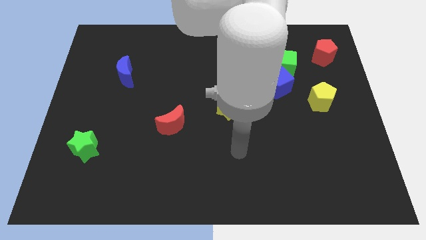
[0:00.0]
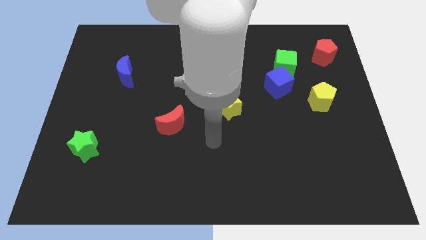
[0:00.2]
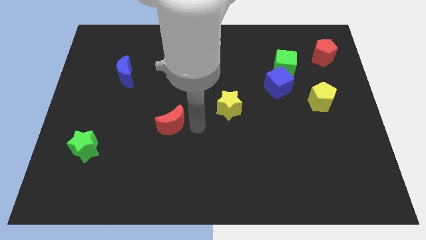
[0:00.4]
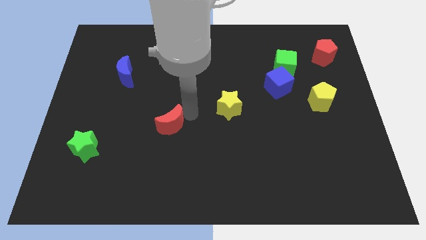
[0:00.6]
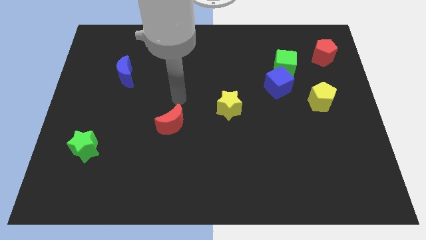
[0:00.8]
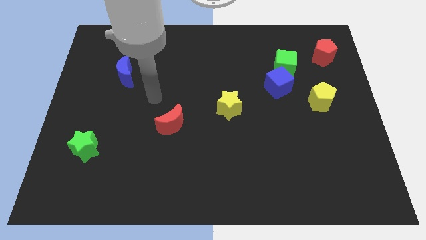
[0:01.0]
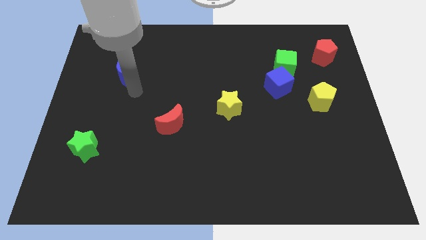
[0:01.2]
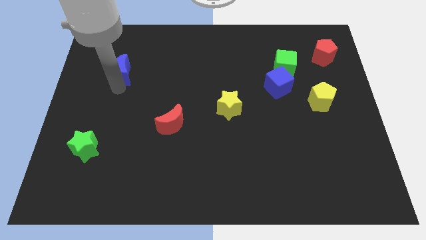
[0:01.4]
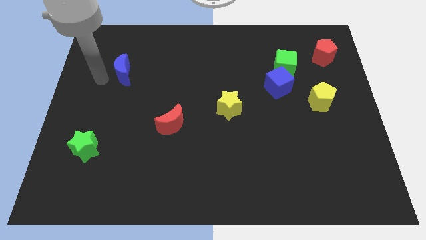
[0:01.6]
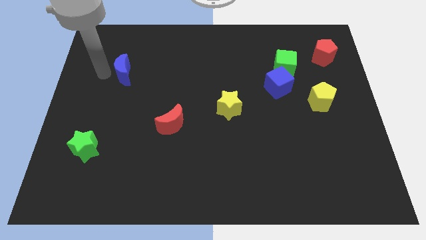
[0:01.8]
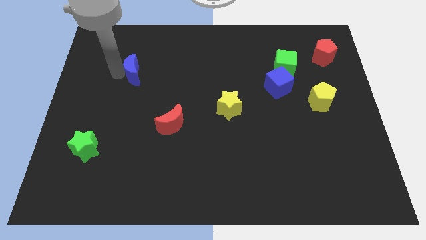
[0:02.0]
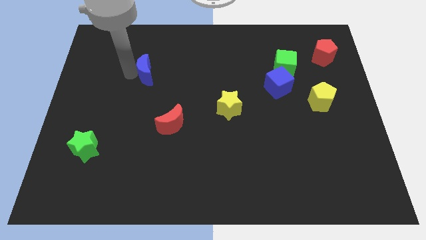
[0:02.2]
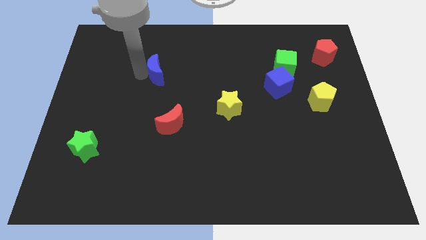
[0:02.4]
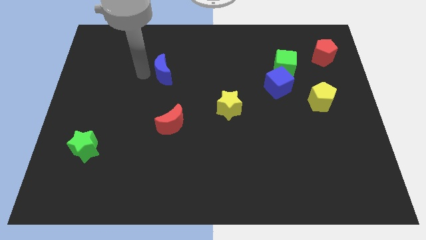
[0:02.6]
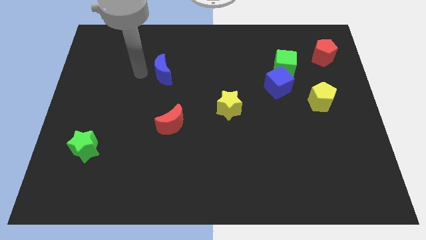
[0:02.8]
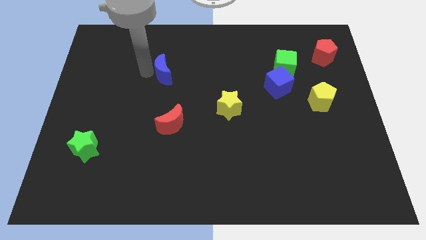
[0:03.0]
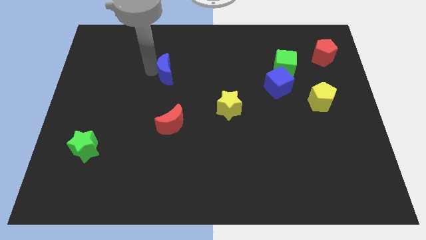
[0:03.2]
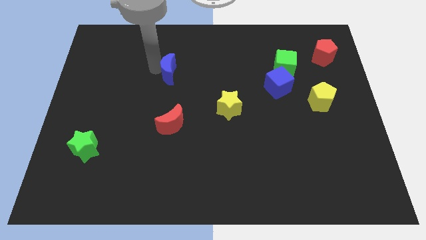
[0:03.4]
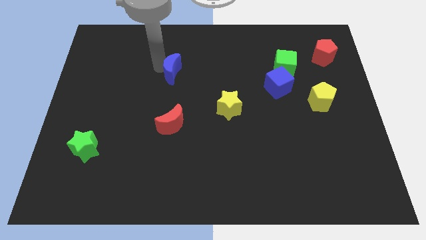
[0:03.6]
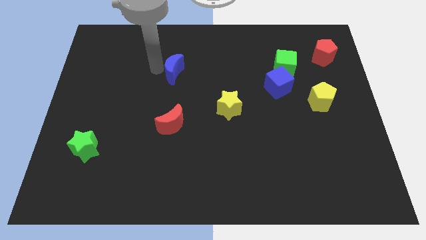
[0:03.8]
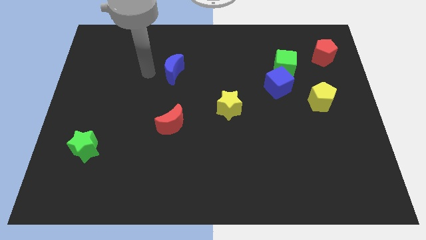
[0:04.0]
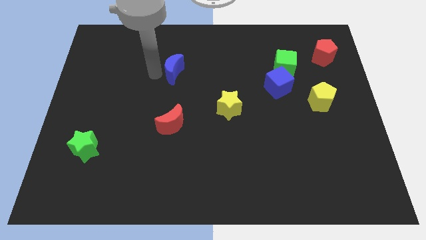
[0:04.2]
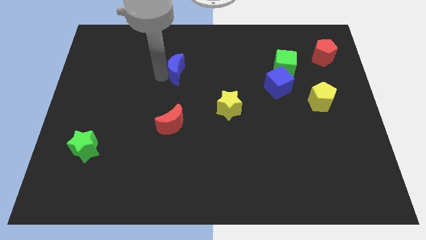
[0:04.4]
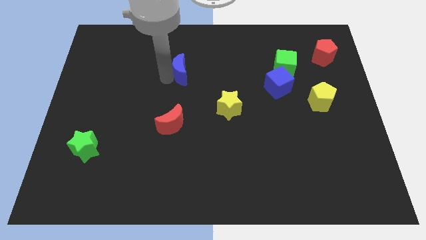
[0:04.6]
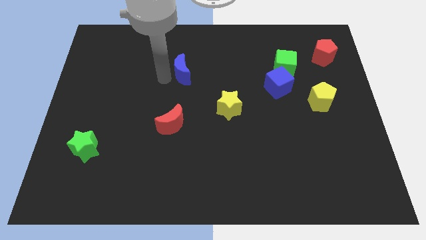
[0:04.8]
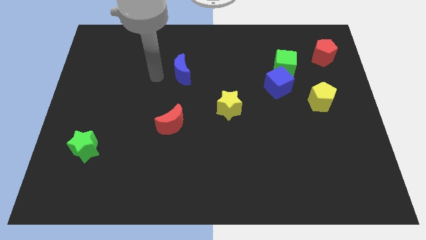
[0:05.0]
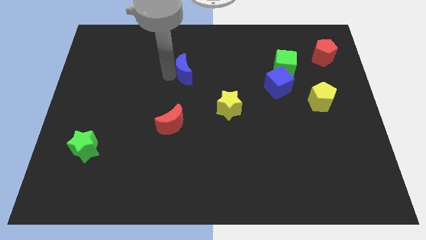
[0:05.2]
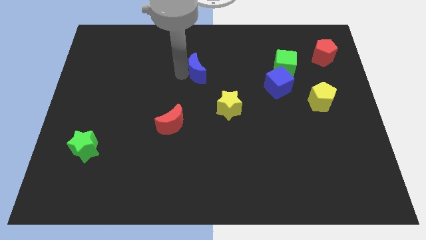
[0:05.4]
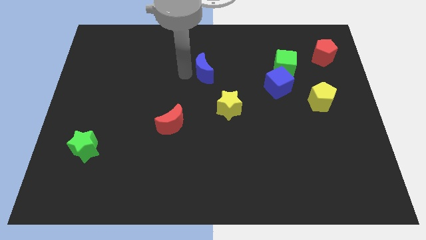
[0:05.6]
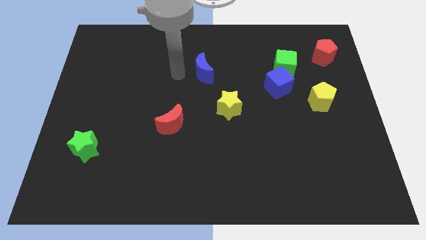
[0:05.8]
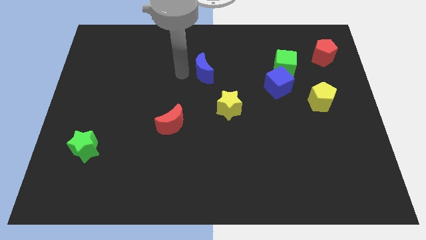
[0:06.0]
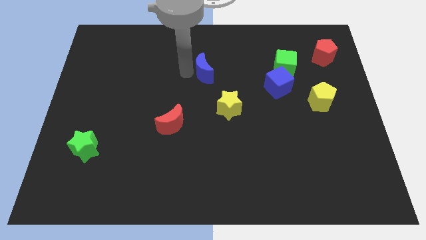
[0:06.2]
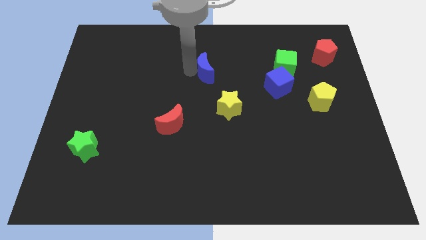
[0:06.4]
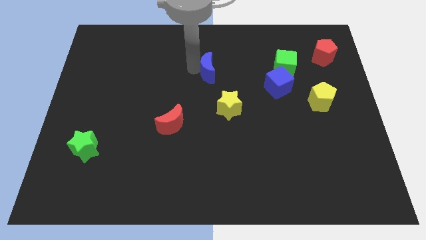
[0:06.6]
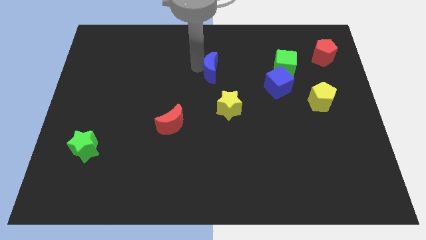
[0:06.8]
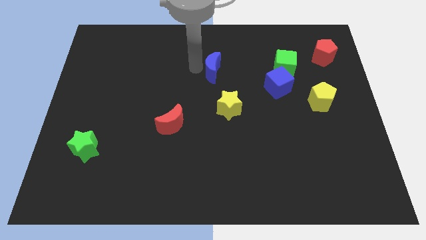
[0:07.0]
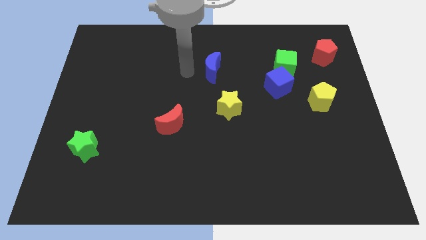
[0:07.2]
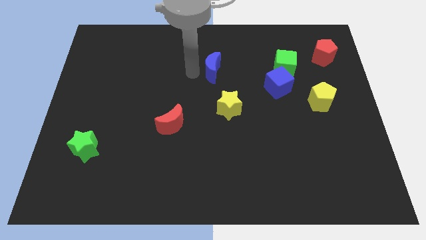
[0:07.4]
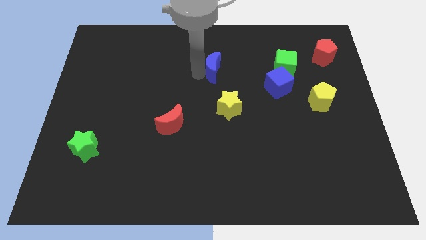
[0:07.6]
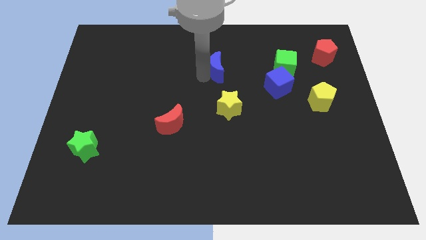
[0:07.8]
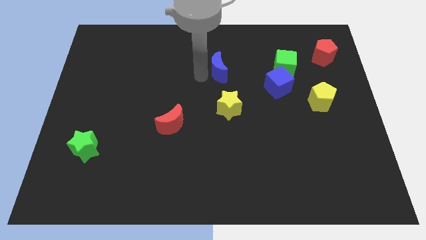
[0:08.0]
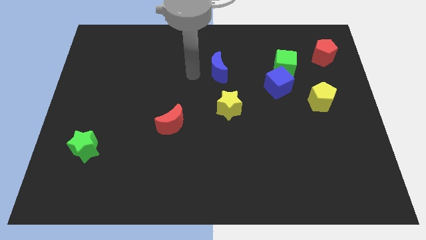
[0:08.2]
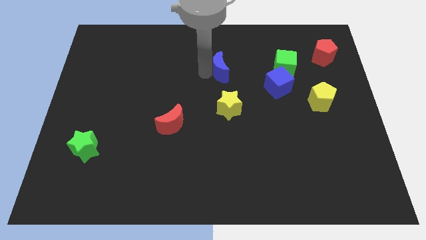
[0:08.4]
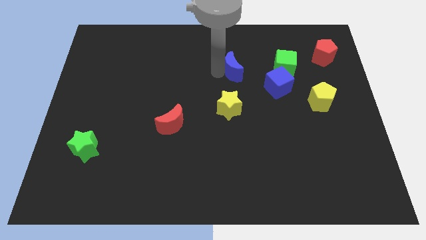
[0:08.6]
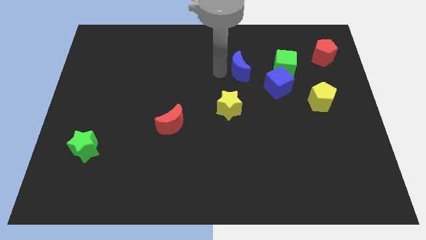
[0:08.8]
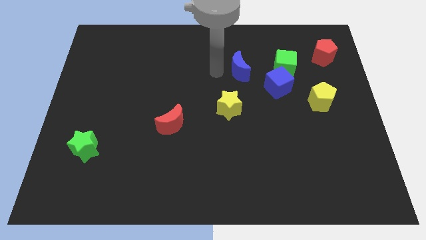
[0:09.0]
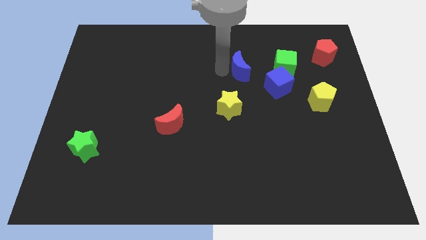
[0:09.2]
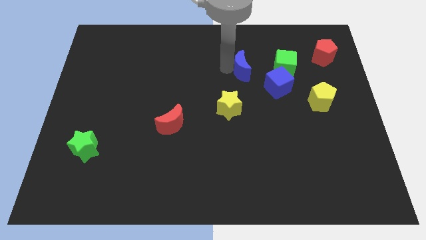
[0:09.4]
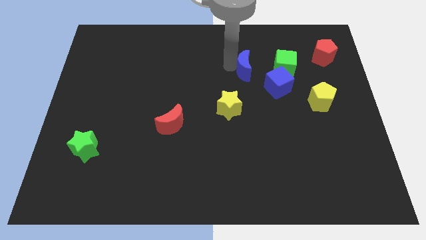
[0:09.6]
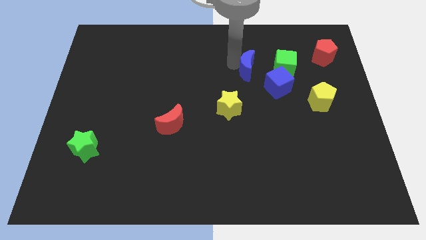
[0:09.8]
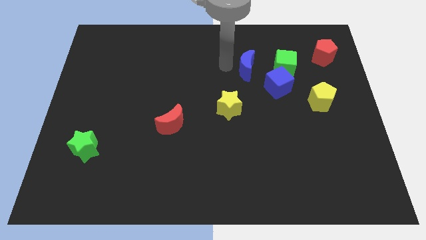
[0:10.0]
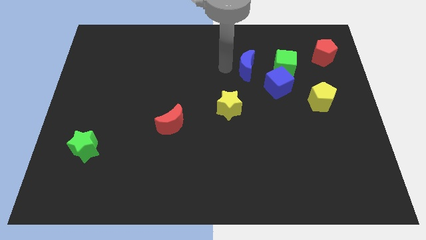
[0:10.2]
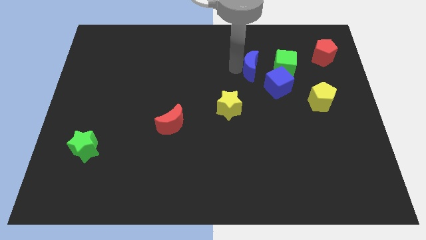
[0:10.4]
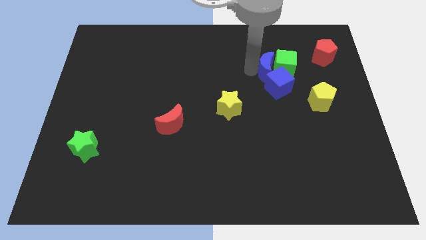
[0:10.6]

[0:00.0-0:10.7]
slide the blue moon next to the green cube

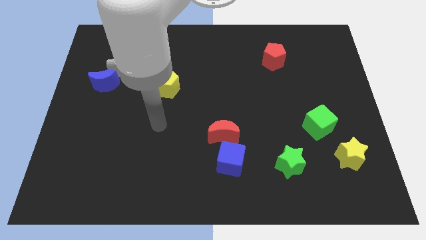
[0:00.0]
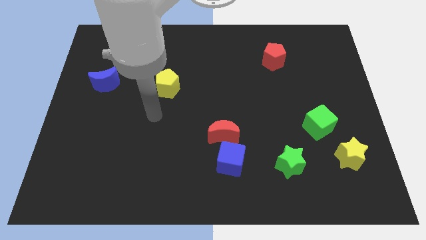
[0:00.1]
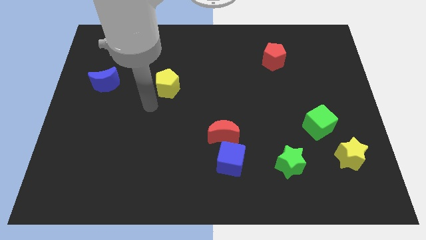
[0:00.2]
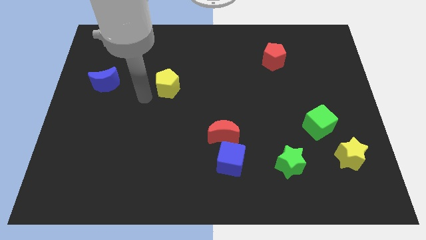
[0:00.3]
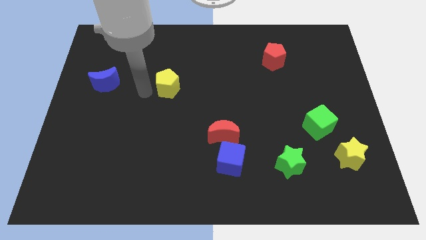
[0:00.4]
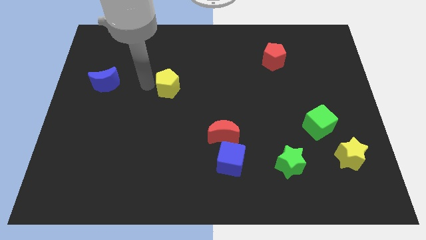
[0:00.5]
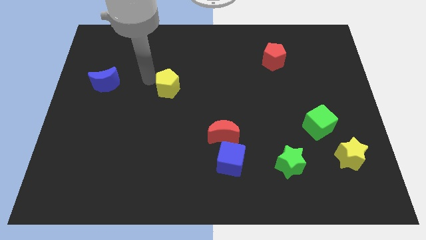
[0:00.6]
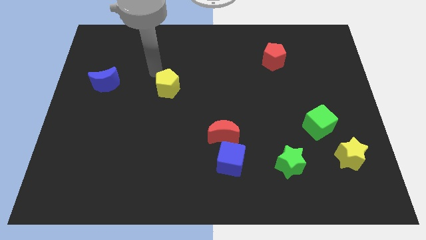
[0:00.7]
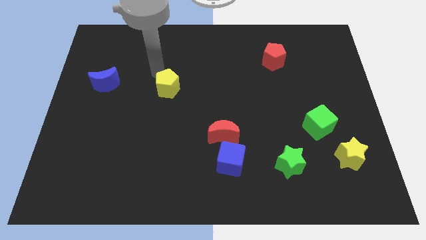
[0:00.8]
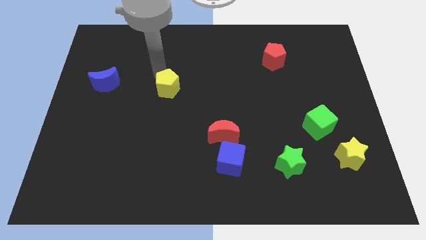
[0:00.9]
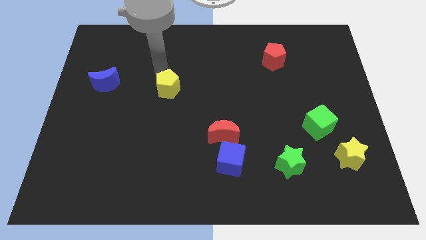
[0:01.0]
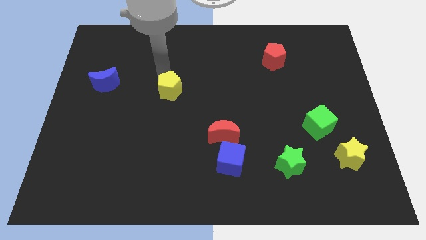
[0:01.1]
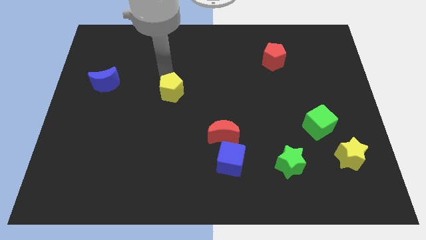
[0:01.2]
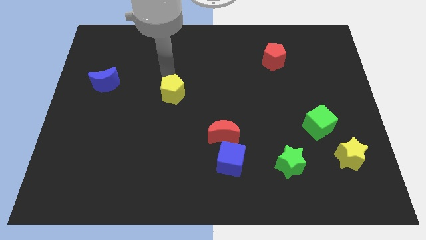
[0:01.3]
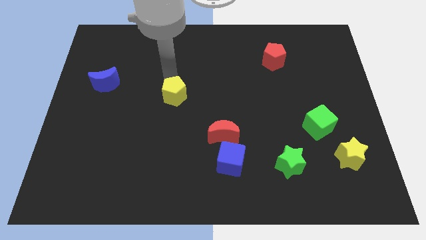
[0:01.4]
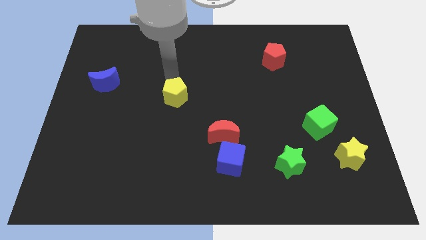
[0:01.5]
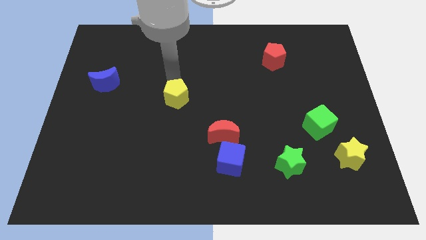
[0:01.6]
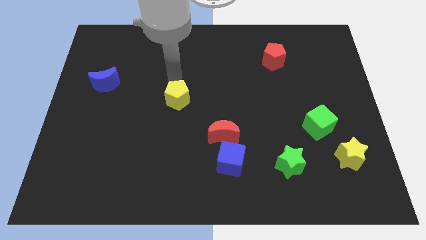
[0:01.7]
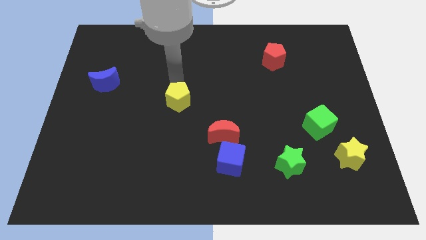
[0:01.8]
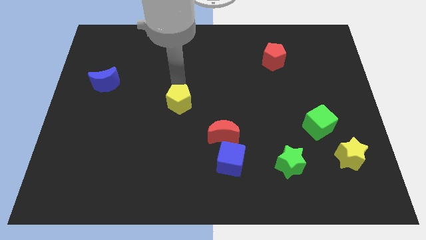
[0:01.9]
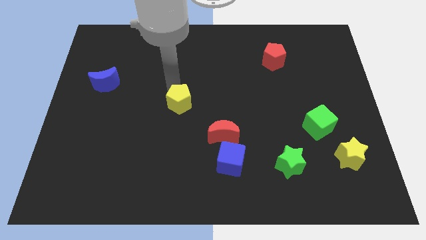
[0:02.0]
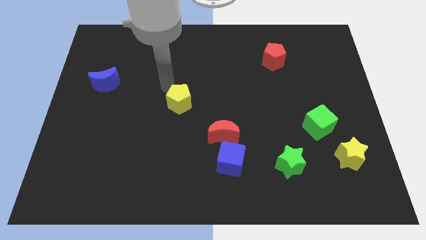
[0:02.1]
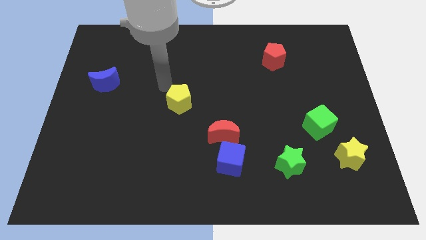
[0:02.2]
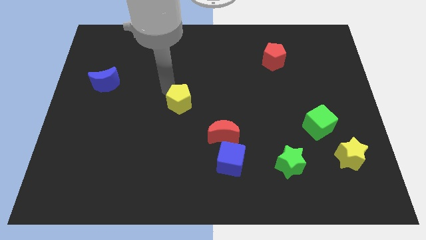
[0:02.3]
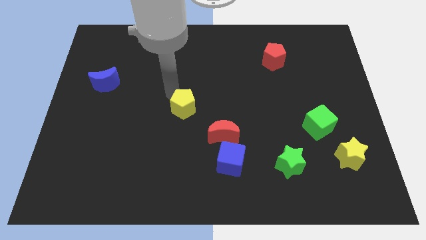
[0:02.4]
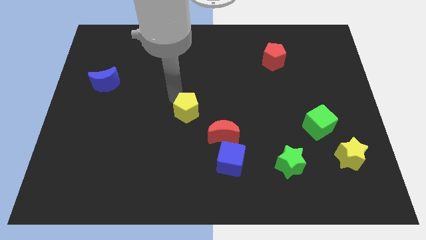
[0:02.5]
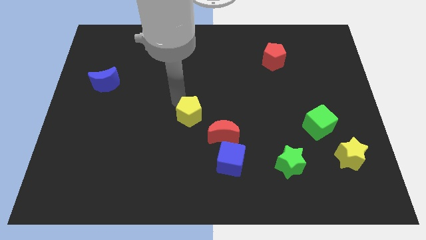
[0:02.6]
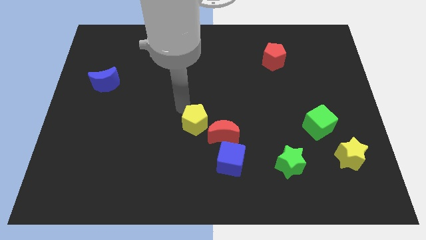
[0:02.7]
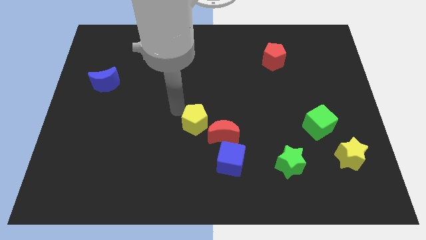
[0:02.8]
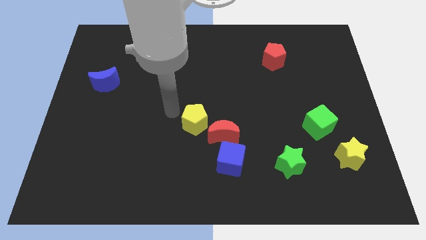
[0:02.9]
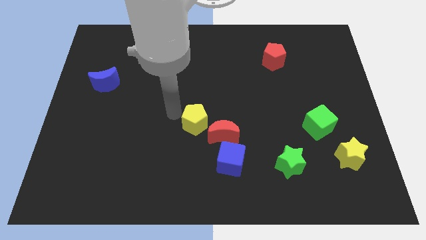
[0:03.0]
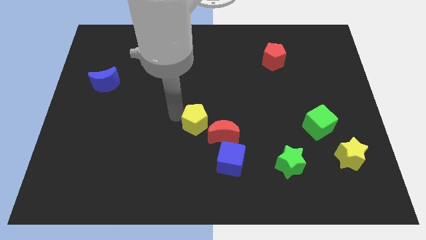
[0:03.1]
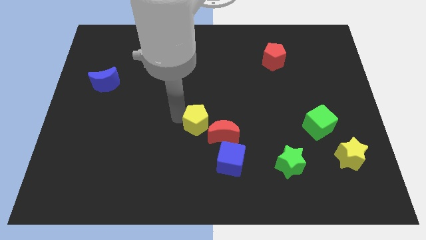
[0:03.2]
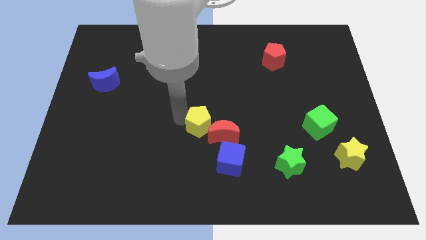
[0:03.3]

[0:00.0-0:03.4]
slide the yellow pentagon to the red moon
